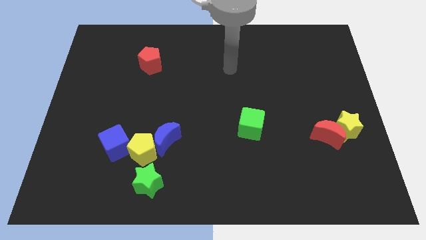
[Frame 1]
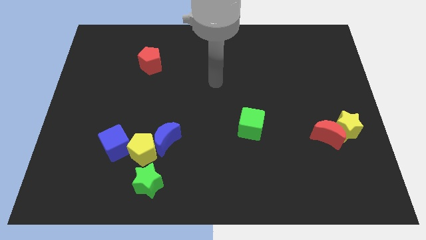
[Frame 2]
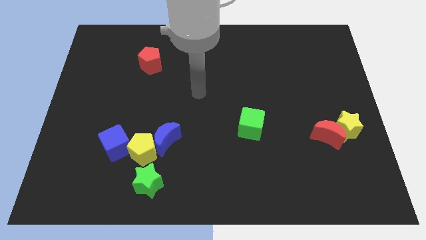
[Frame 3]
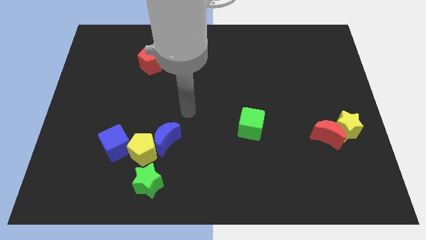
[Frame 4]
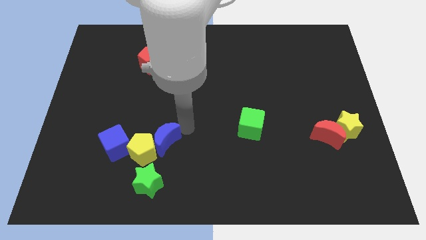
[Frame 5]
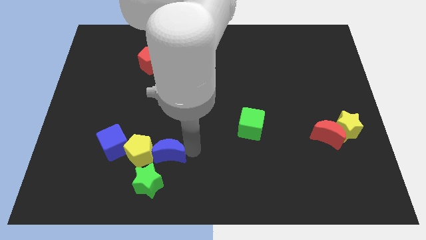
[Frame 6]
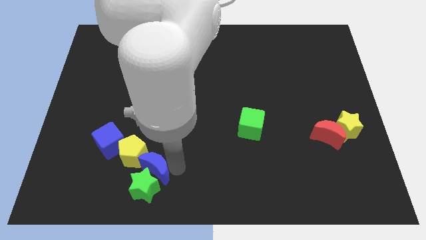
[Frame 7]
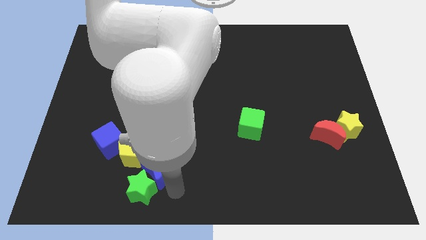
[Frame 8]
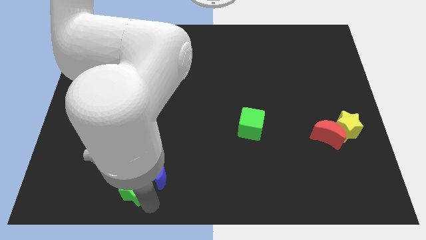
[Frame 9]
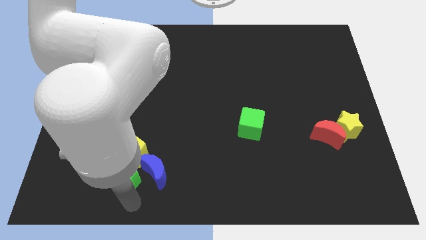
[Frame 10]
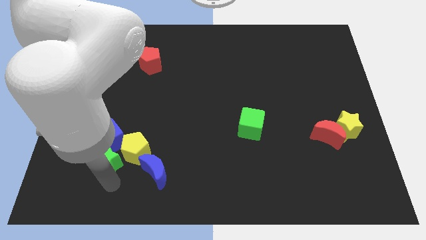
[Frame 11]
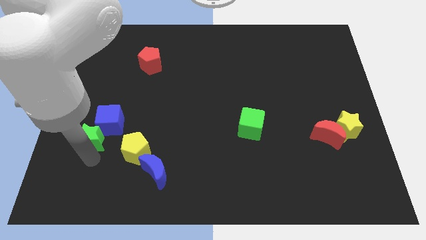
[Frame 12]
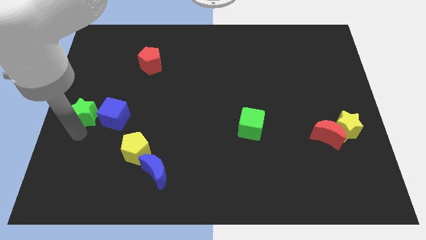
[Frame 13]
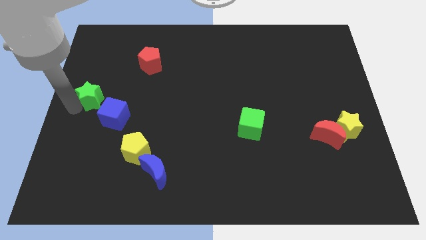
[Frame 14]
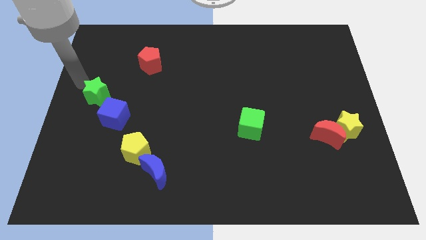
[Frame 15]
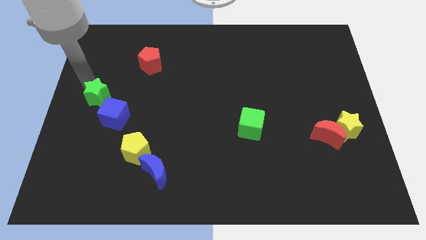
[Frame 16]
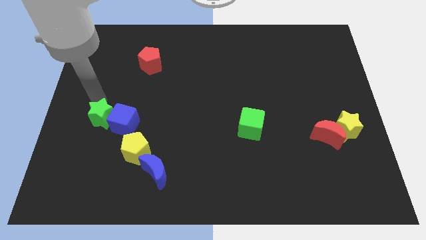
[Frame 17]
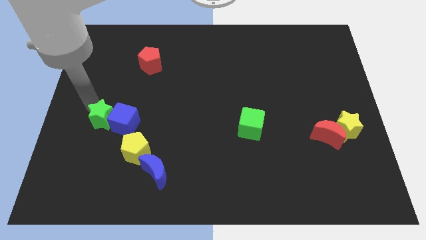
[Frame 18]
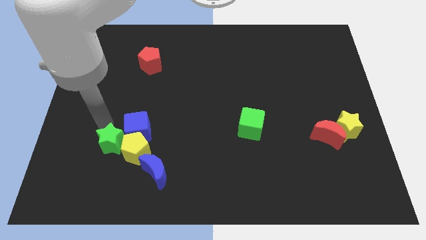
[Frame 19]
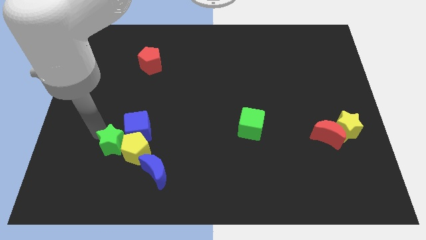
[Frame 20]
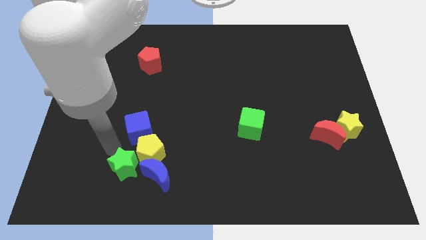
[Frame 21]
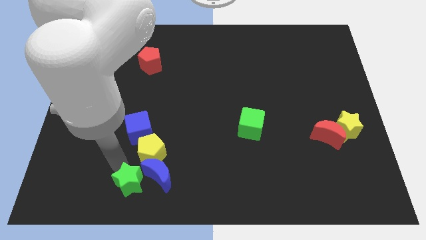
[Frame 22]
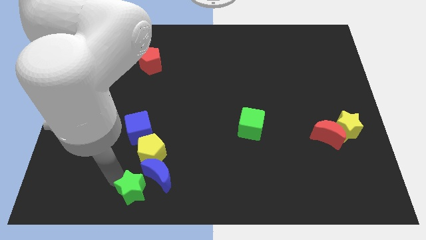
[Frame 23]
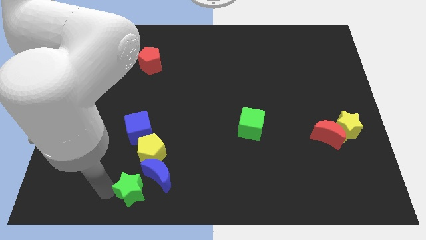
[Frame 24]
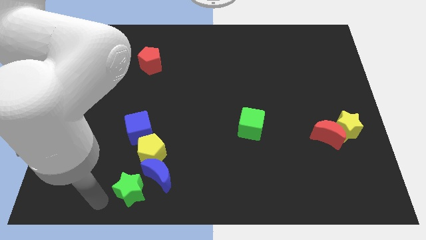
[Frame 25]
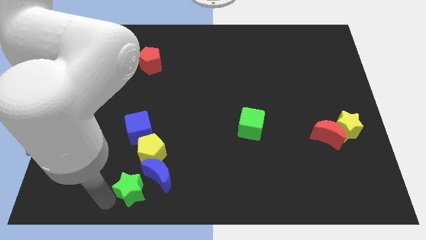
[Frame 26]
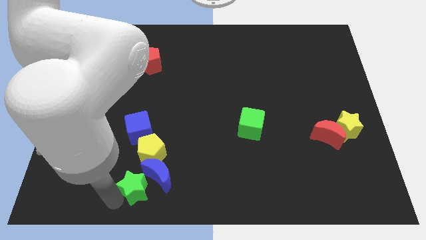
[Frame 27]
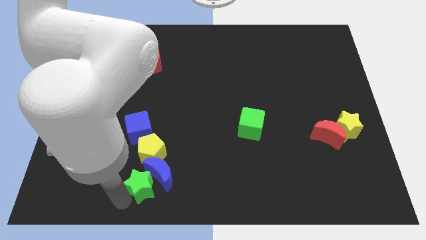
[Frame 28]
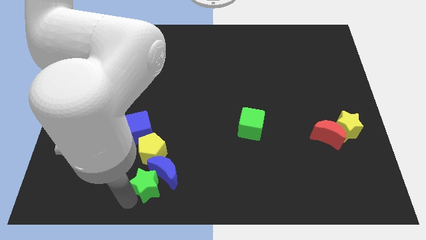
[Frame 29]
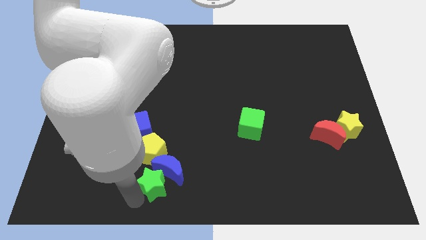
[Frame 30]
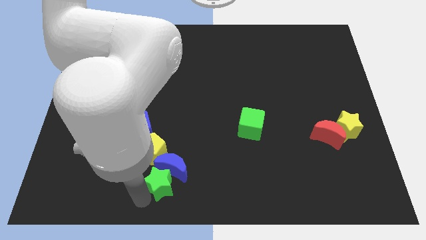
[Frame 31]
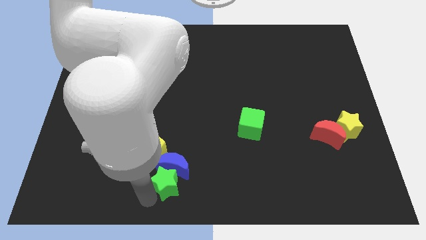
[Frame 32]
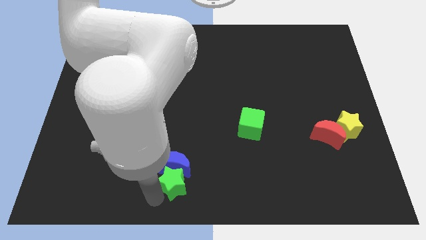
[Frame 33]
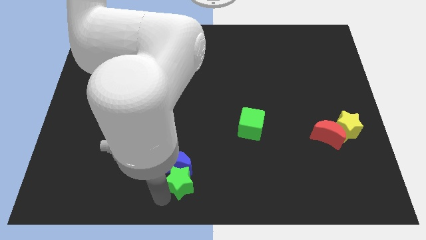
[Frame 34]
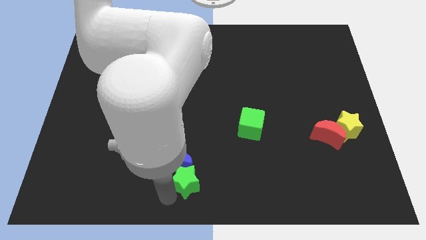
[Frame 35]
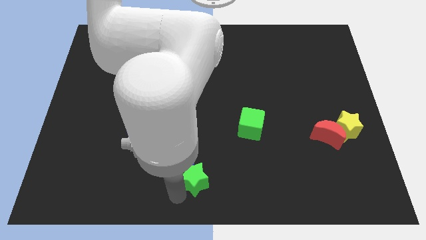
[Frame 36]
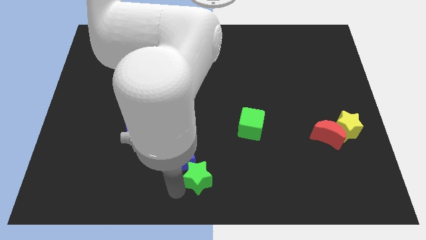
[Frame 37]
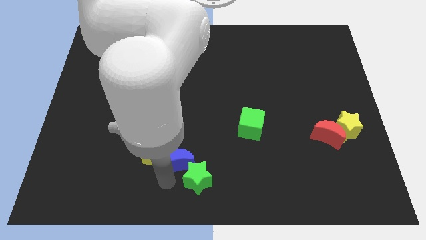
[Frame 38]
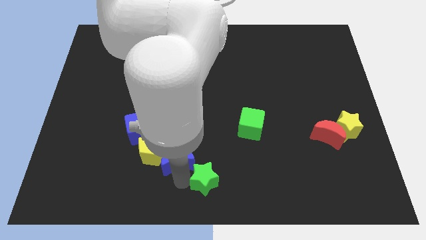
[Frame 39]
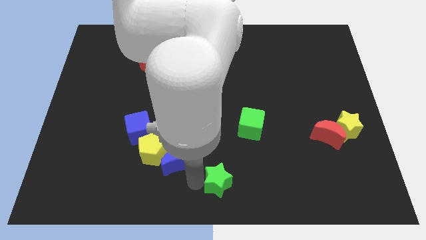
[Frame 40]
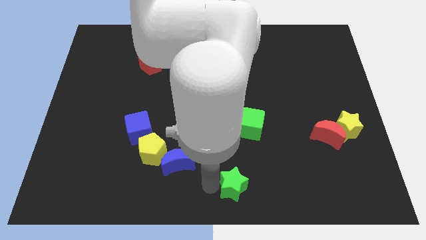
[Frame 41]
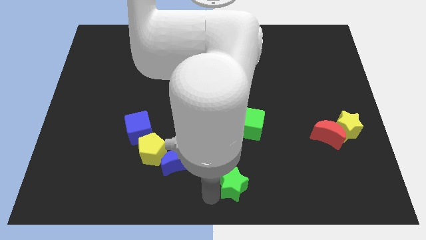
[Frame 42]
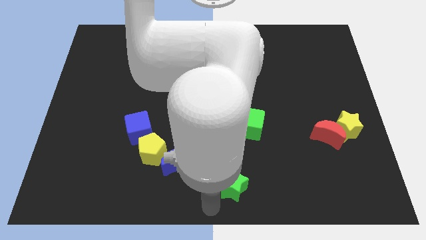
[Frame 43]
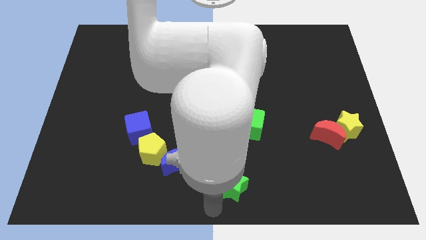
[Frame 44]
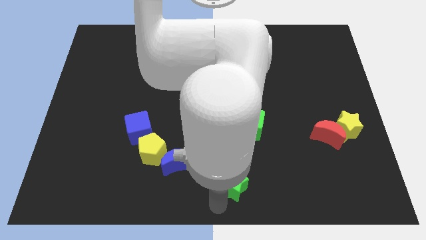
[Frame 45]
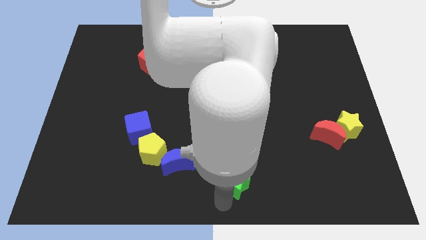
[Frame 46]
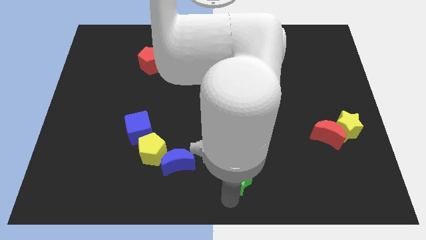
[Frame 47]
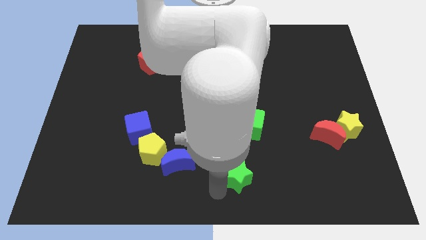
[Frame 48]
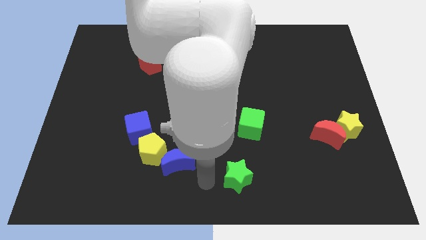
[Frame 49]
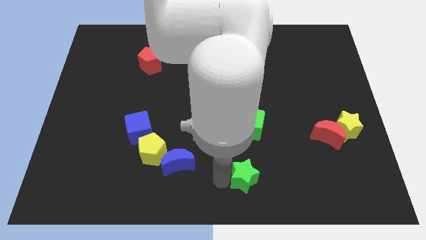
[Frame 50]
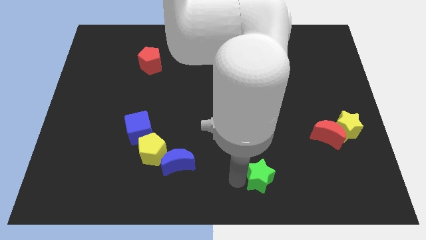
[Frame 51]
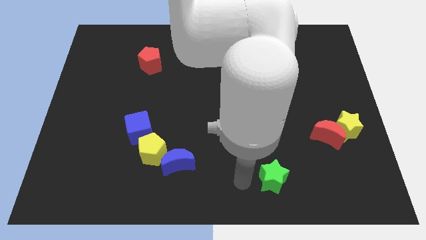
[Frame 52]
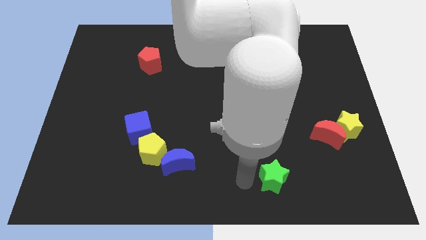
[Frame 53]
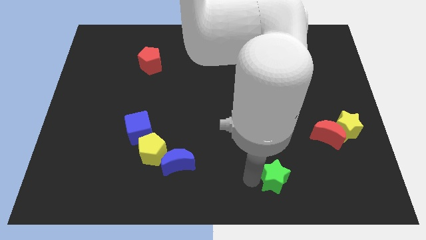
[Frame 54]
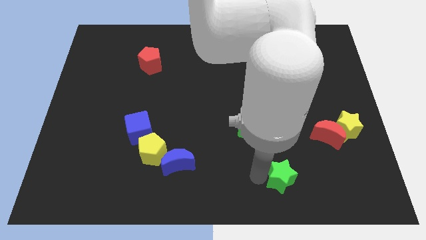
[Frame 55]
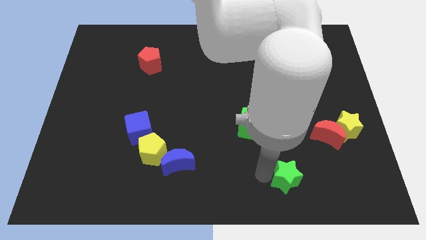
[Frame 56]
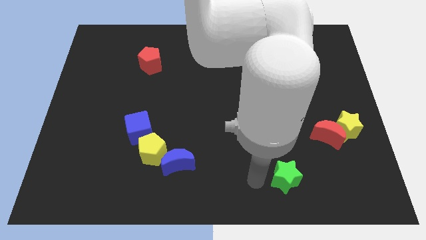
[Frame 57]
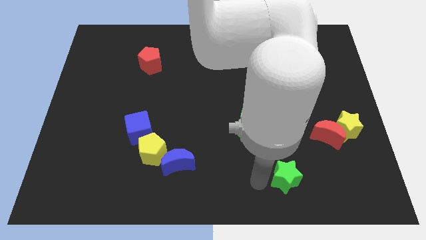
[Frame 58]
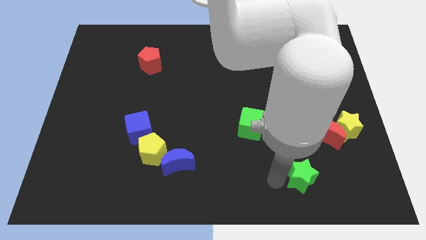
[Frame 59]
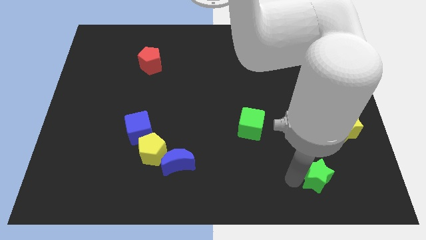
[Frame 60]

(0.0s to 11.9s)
slide the green star to the bottom of the red moon

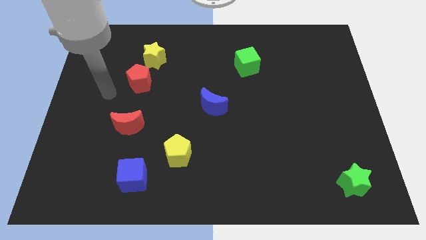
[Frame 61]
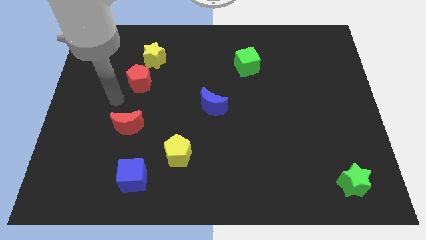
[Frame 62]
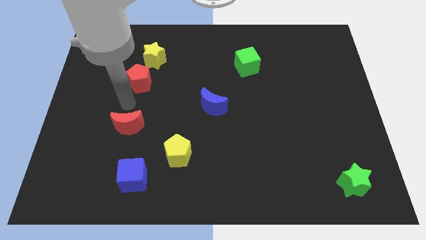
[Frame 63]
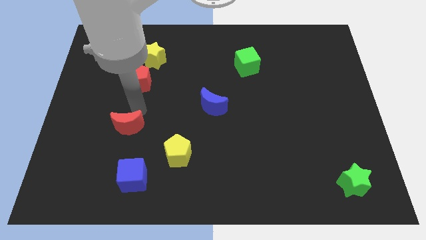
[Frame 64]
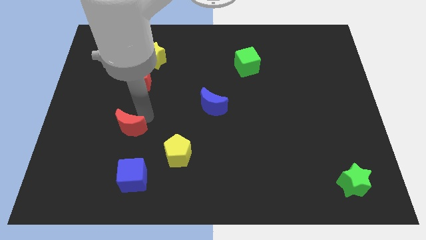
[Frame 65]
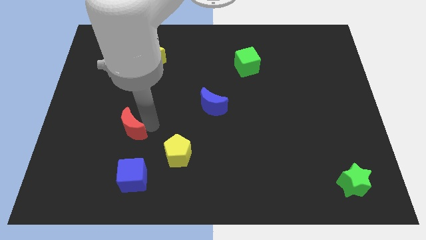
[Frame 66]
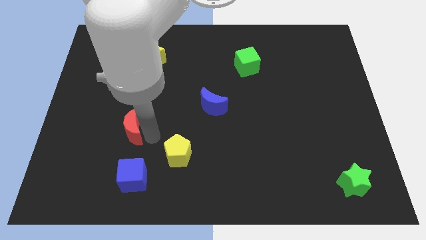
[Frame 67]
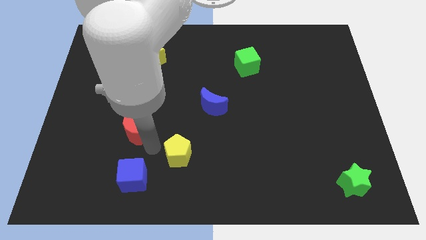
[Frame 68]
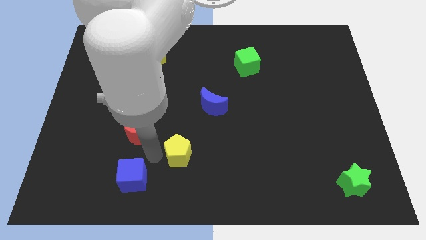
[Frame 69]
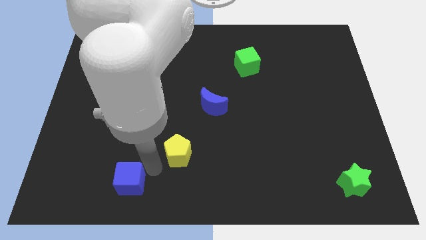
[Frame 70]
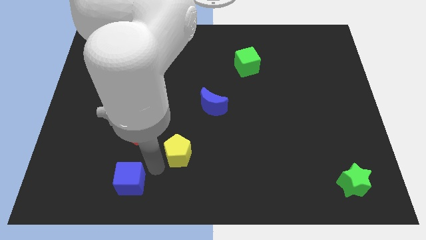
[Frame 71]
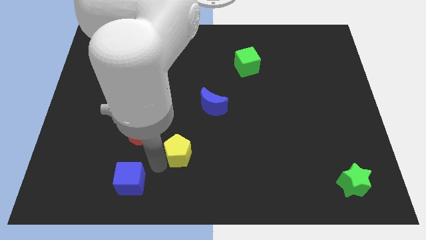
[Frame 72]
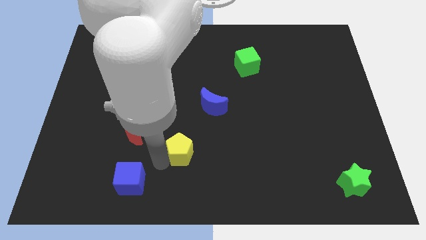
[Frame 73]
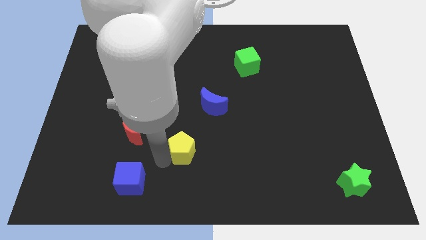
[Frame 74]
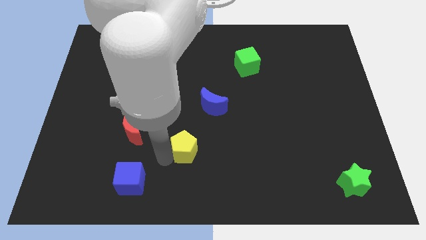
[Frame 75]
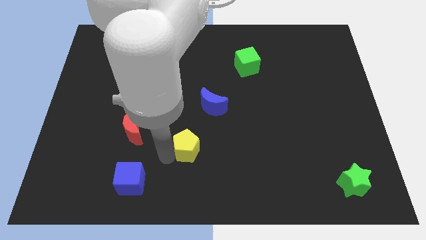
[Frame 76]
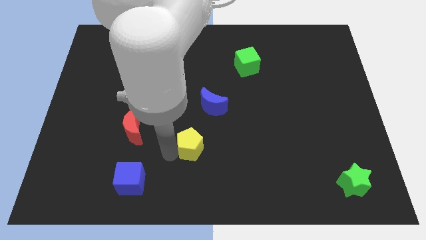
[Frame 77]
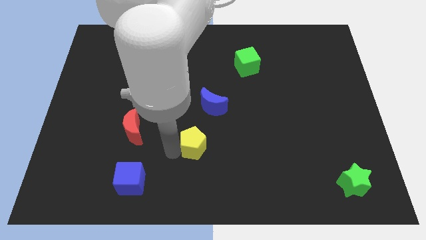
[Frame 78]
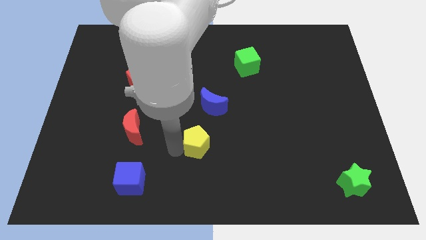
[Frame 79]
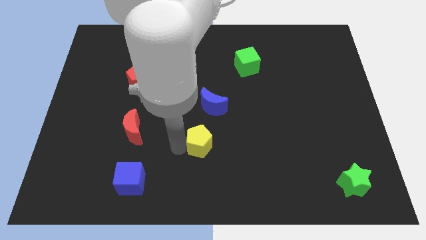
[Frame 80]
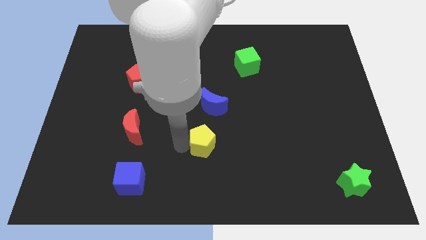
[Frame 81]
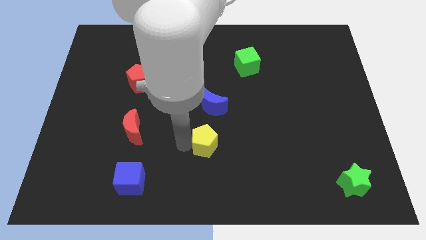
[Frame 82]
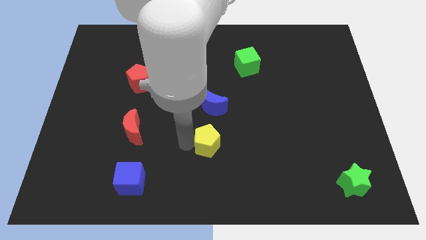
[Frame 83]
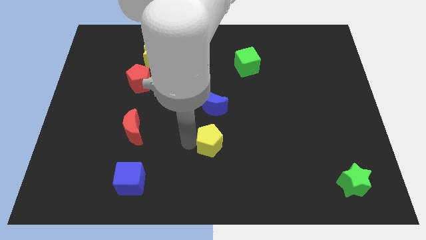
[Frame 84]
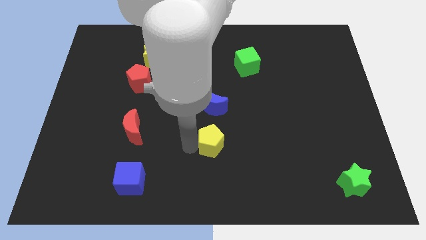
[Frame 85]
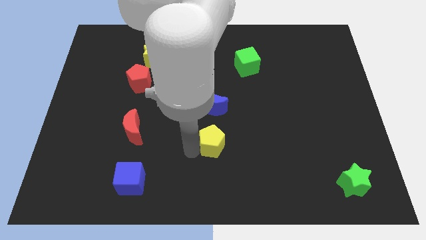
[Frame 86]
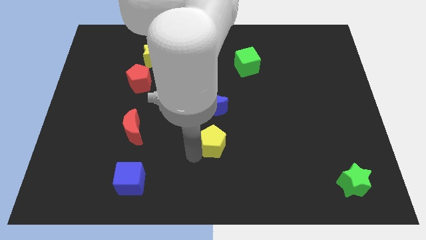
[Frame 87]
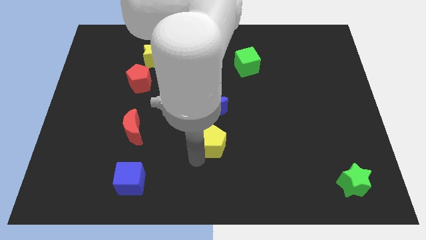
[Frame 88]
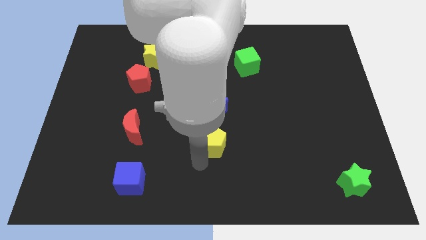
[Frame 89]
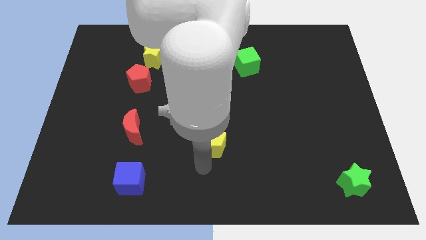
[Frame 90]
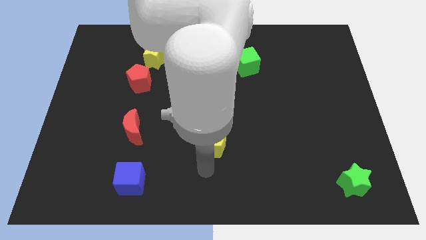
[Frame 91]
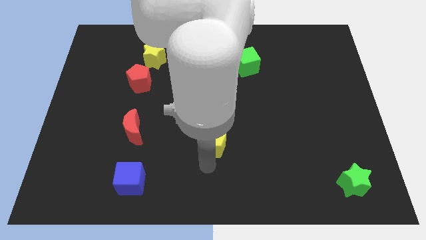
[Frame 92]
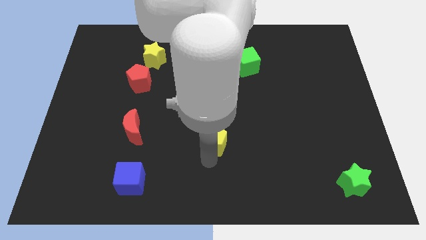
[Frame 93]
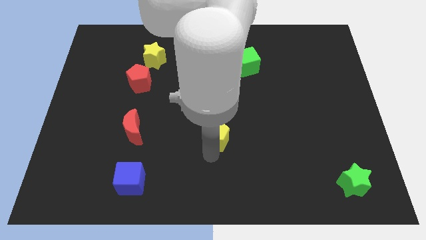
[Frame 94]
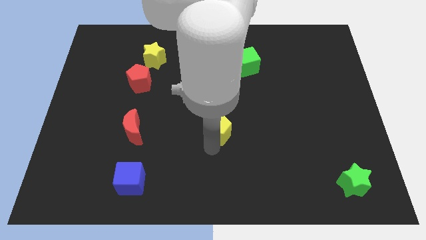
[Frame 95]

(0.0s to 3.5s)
put the yellow pentagon to the bottom right of the blue moon
